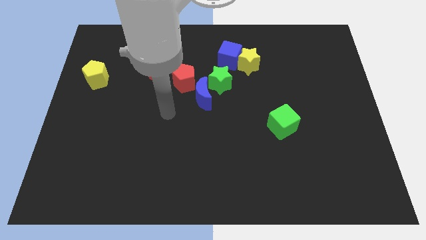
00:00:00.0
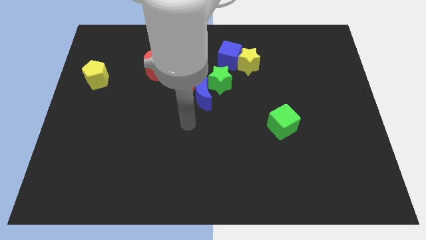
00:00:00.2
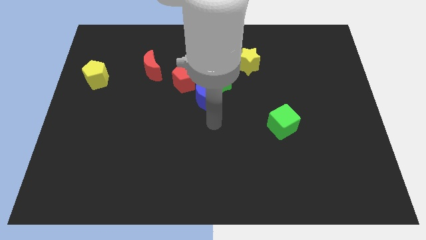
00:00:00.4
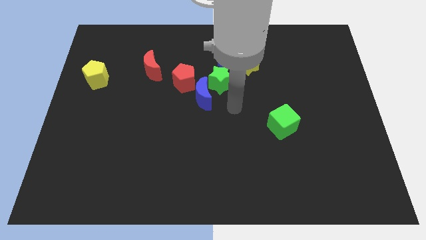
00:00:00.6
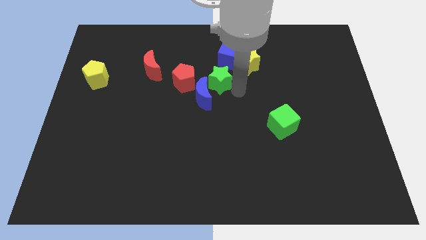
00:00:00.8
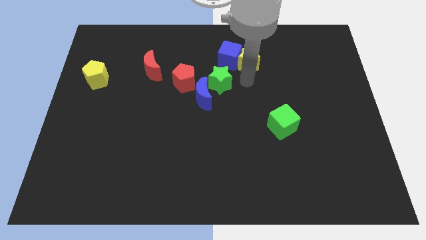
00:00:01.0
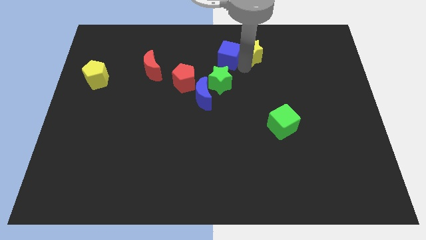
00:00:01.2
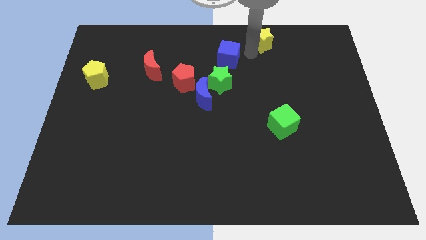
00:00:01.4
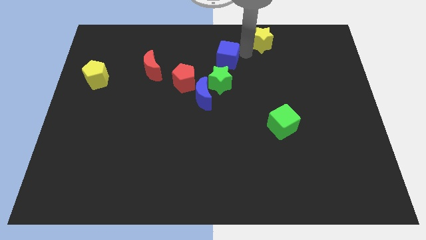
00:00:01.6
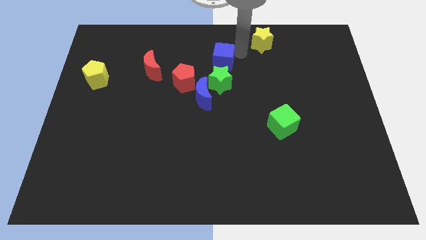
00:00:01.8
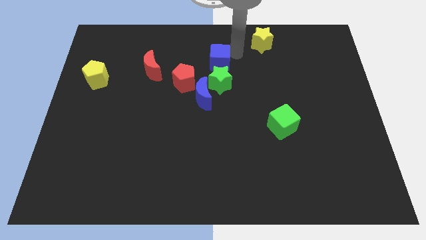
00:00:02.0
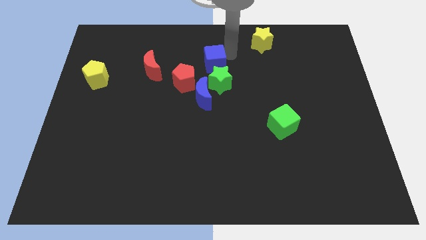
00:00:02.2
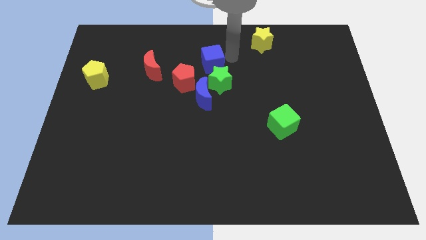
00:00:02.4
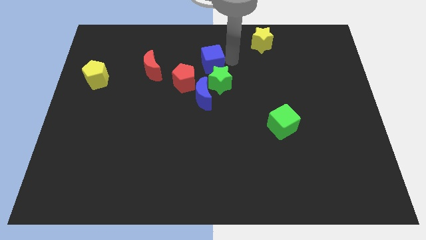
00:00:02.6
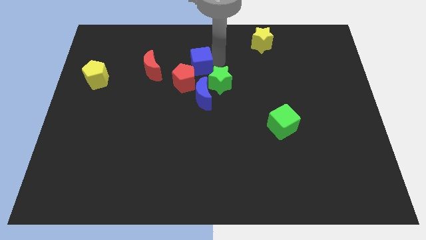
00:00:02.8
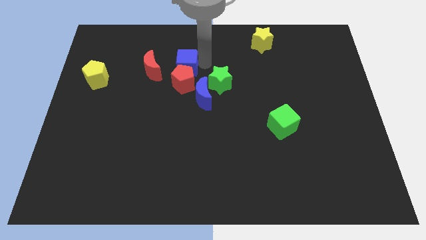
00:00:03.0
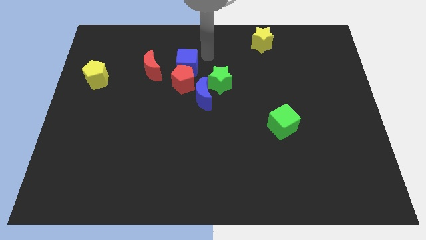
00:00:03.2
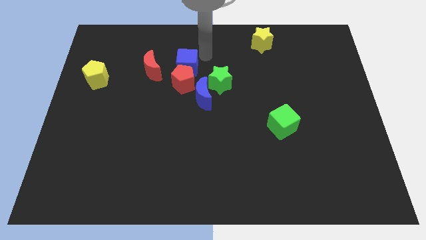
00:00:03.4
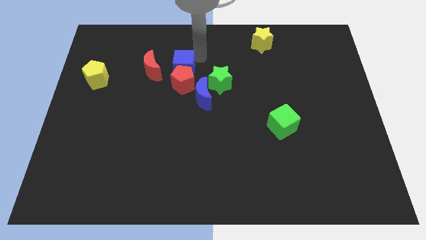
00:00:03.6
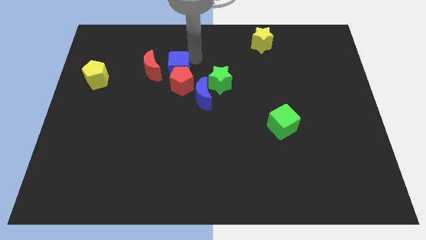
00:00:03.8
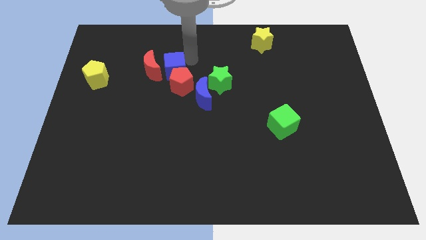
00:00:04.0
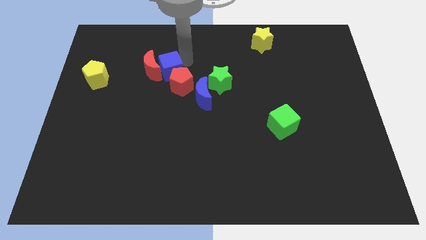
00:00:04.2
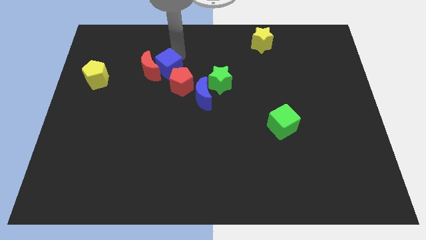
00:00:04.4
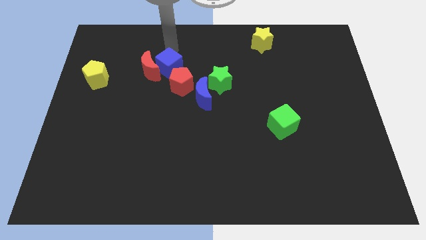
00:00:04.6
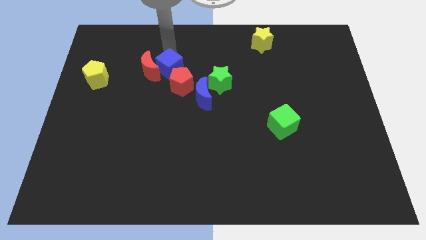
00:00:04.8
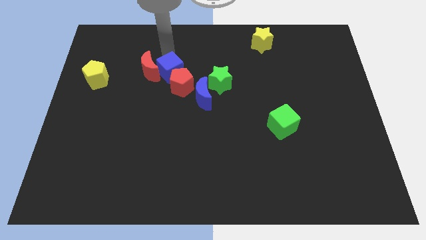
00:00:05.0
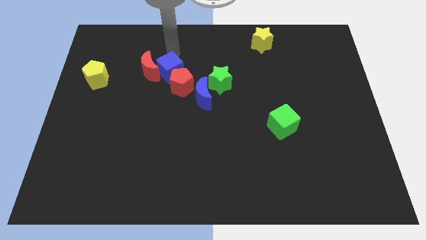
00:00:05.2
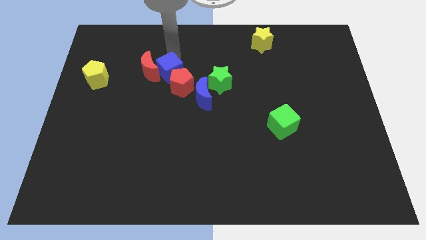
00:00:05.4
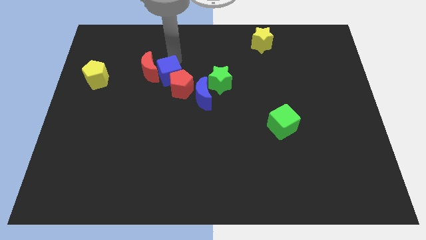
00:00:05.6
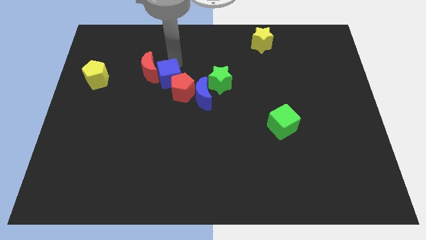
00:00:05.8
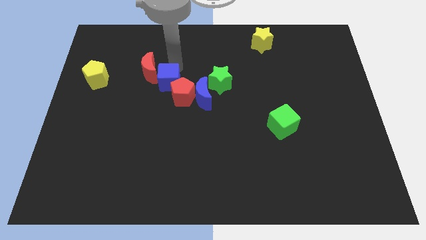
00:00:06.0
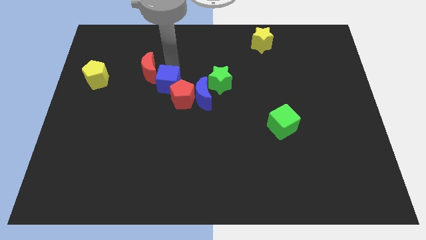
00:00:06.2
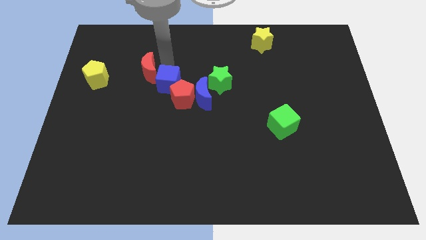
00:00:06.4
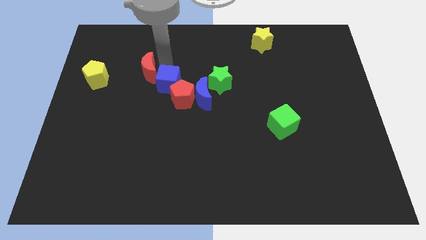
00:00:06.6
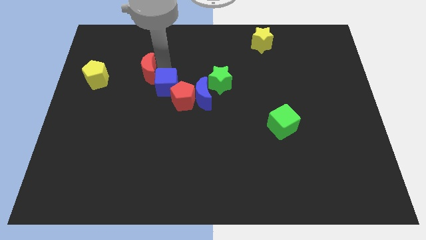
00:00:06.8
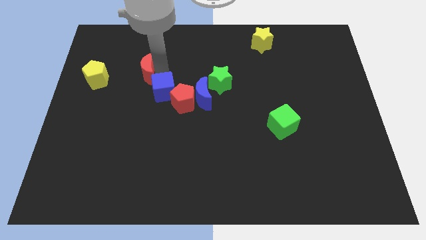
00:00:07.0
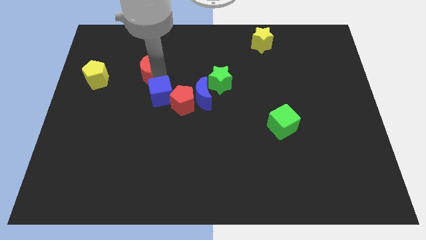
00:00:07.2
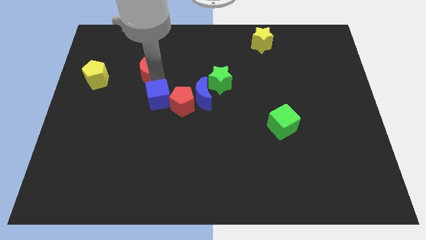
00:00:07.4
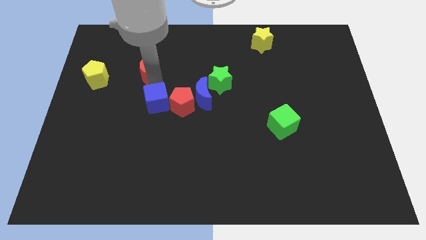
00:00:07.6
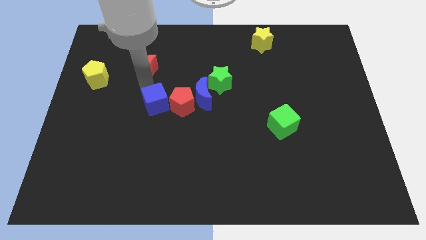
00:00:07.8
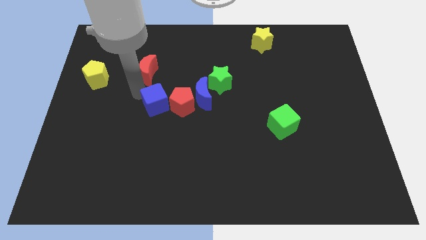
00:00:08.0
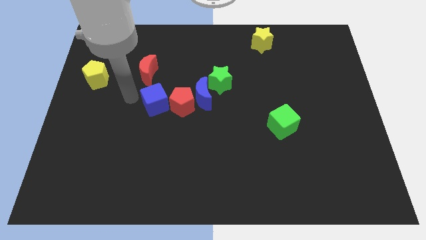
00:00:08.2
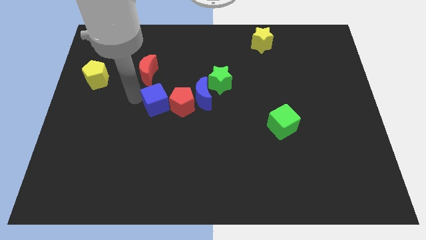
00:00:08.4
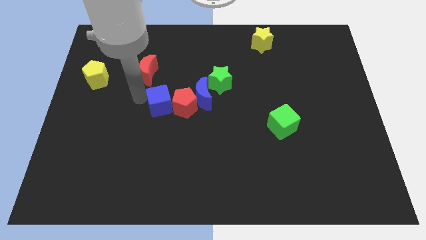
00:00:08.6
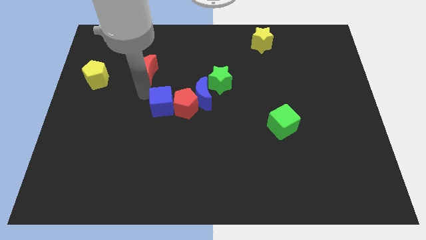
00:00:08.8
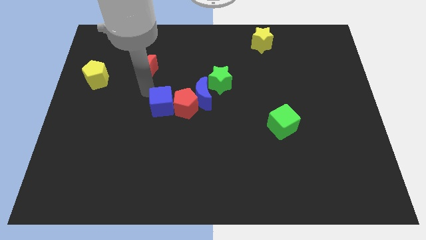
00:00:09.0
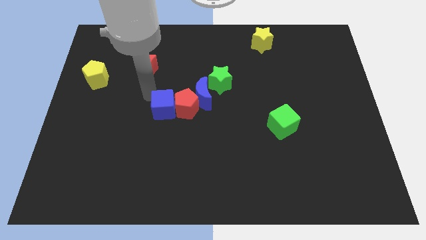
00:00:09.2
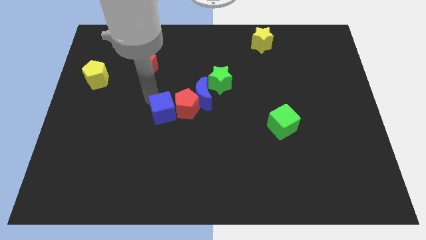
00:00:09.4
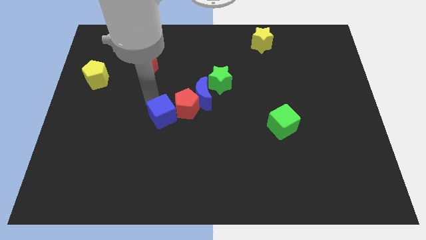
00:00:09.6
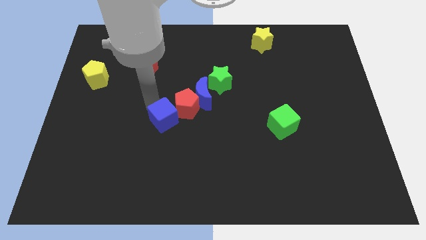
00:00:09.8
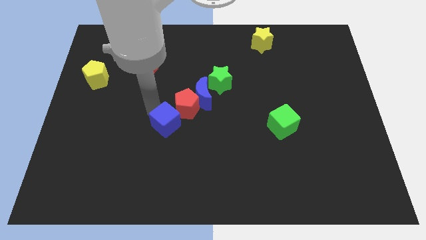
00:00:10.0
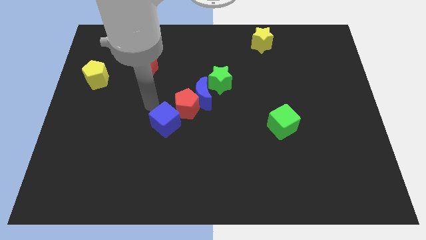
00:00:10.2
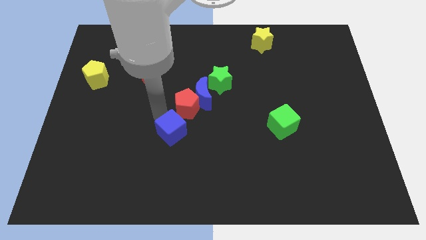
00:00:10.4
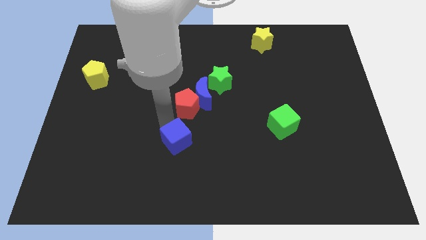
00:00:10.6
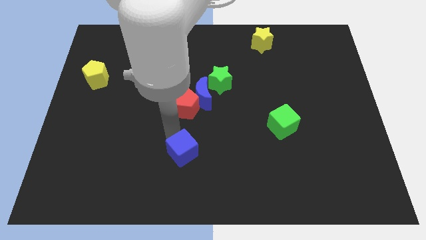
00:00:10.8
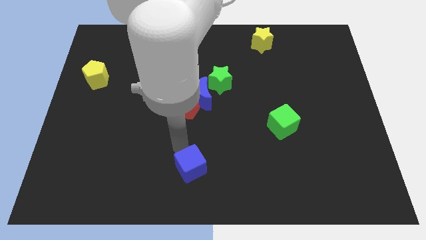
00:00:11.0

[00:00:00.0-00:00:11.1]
slide the blue cube to the bottom side

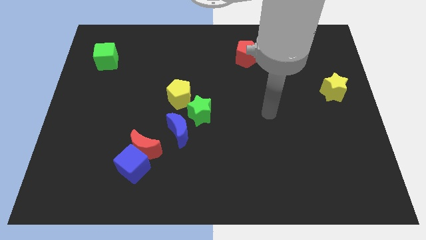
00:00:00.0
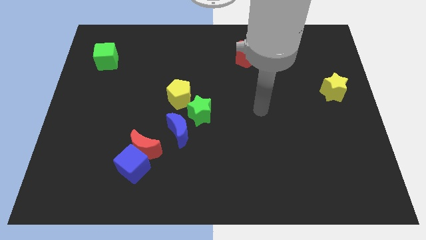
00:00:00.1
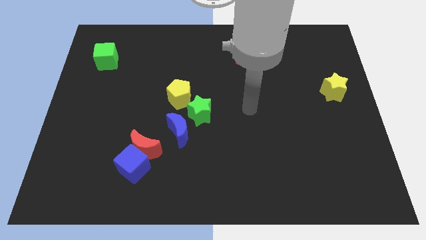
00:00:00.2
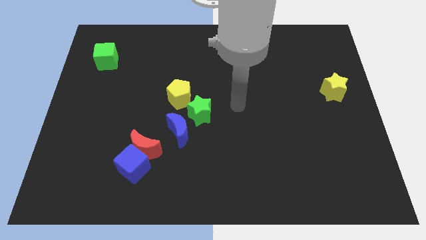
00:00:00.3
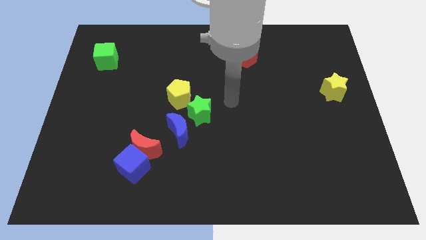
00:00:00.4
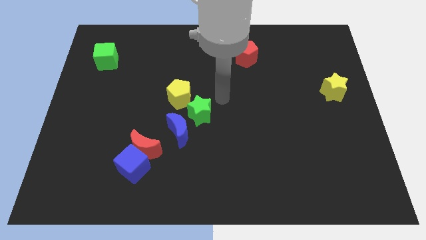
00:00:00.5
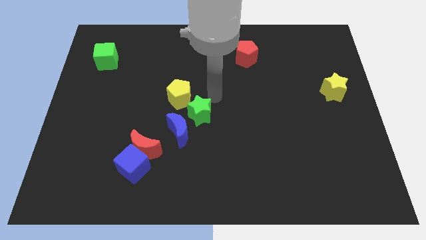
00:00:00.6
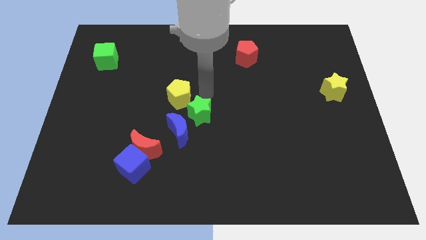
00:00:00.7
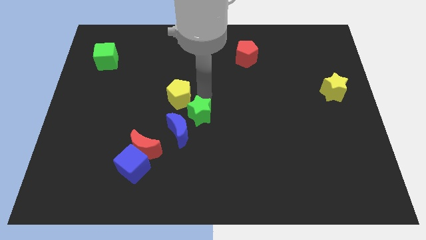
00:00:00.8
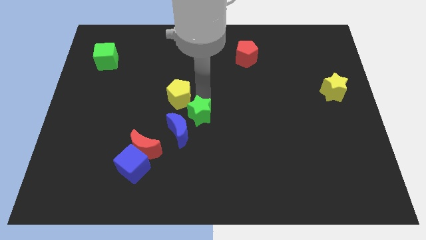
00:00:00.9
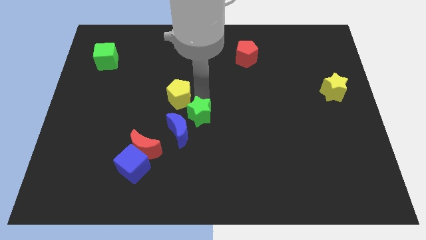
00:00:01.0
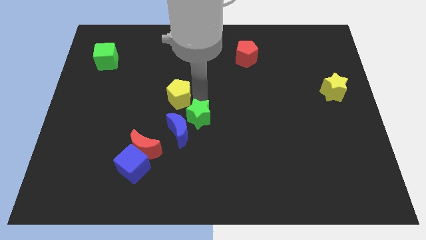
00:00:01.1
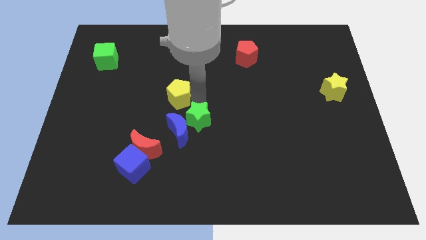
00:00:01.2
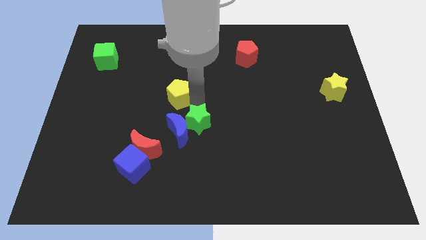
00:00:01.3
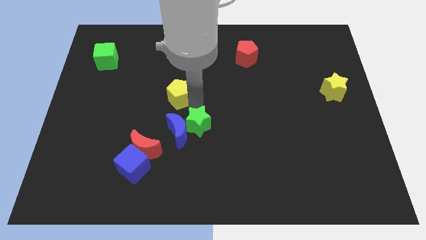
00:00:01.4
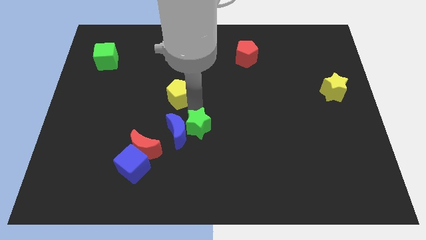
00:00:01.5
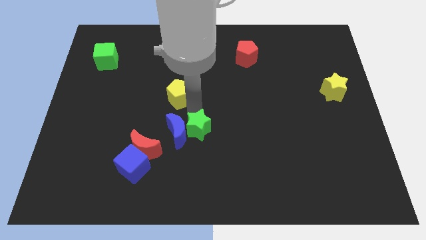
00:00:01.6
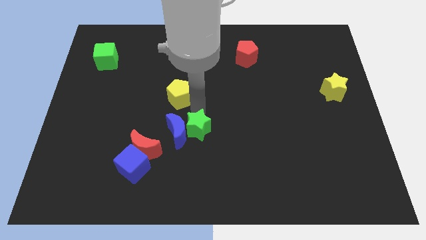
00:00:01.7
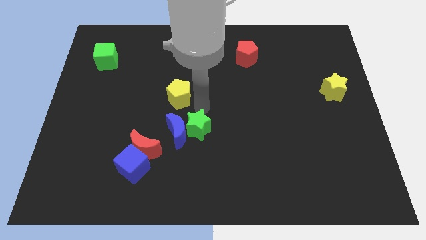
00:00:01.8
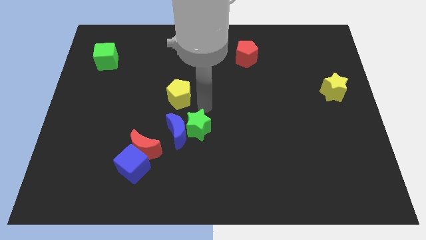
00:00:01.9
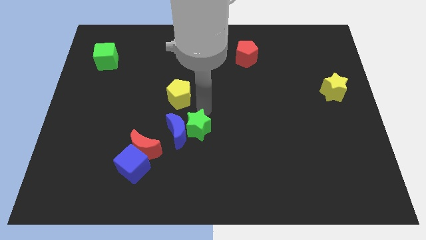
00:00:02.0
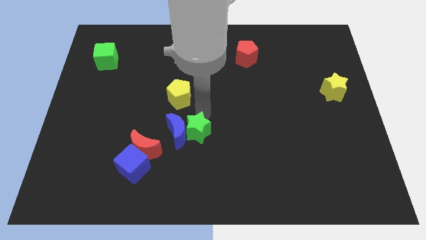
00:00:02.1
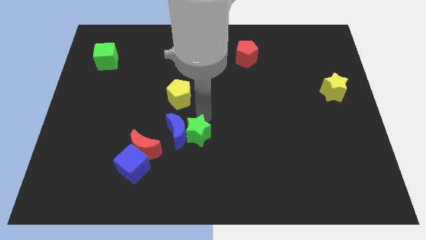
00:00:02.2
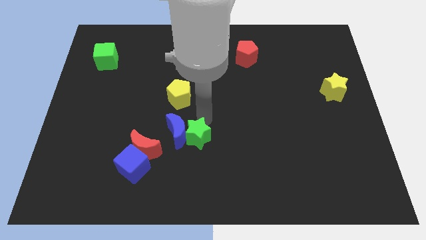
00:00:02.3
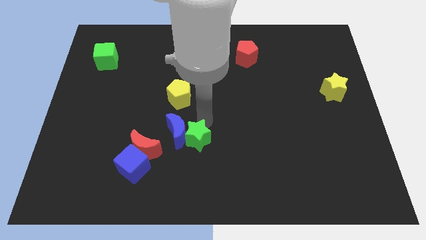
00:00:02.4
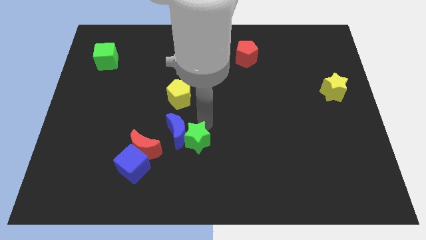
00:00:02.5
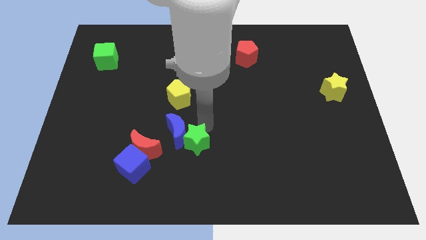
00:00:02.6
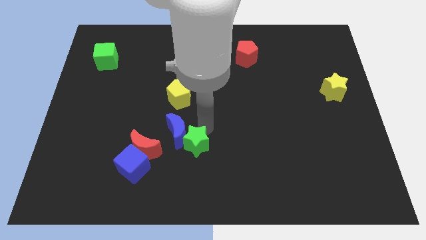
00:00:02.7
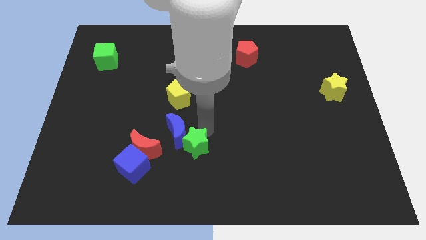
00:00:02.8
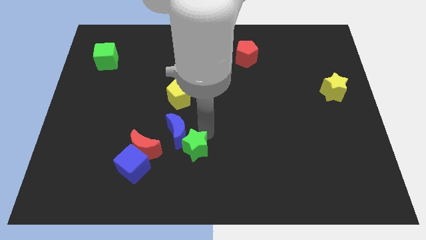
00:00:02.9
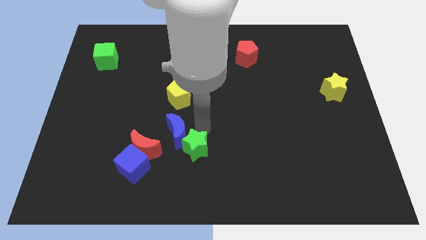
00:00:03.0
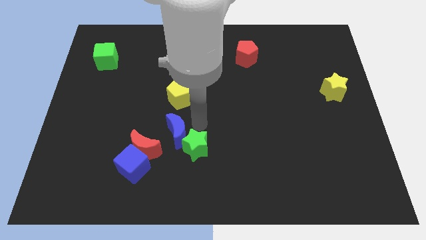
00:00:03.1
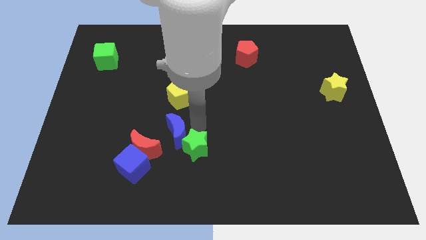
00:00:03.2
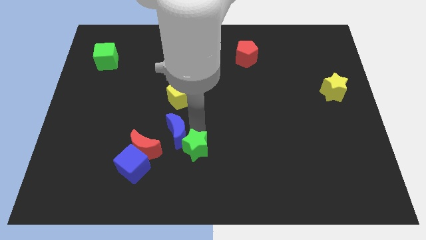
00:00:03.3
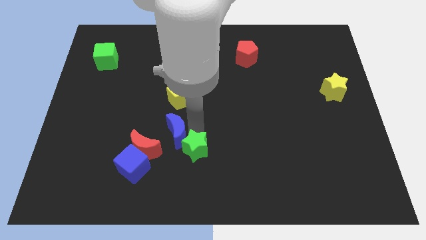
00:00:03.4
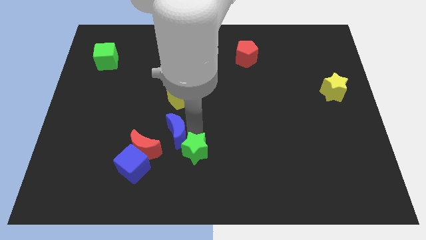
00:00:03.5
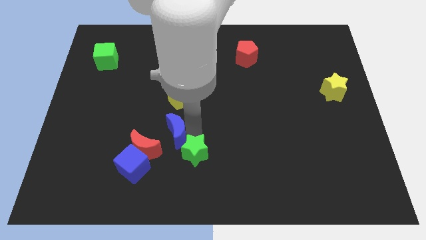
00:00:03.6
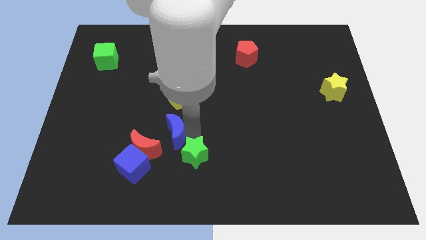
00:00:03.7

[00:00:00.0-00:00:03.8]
move the green star to the bottom side
